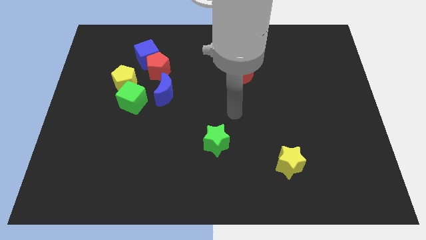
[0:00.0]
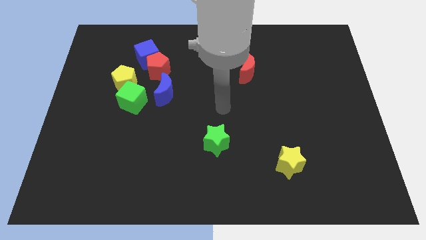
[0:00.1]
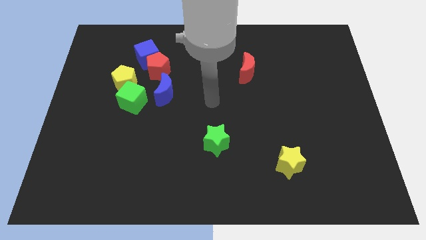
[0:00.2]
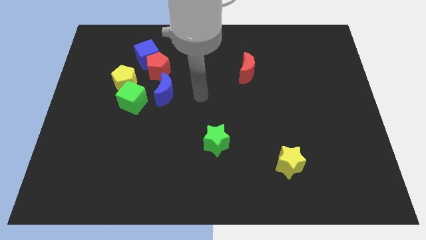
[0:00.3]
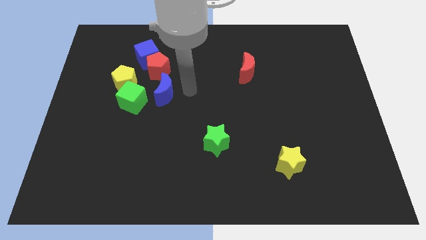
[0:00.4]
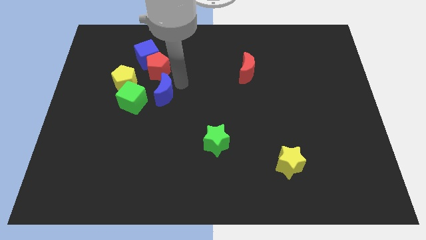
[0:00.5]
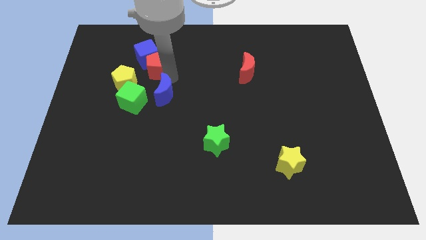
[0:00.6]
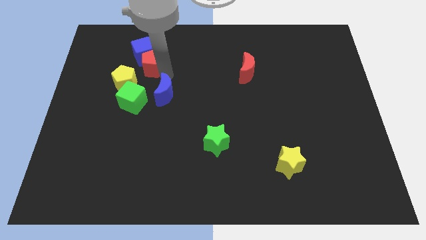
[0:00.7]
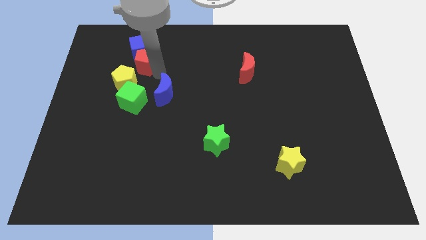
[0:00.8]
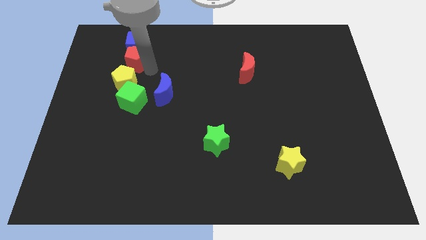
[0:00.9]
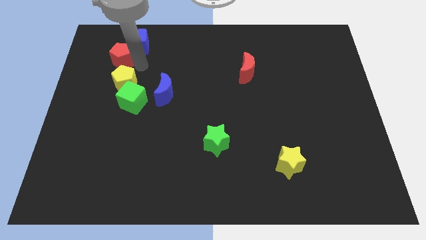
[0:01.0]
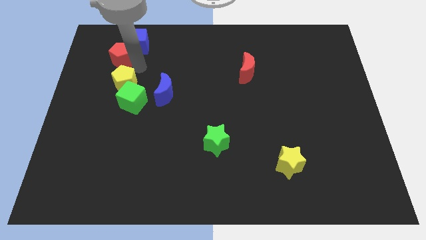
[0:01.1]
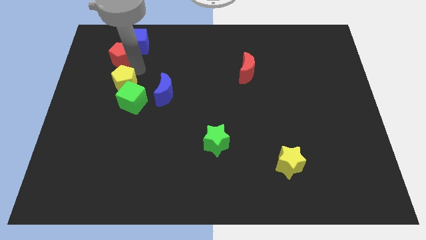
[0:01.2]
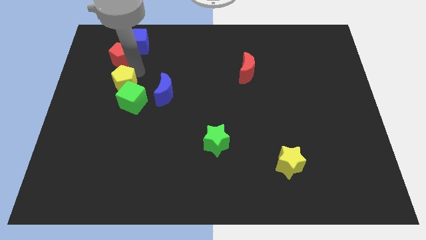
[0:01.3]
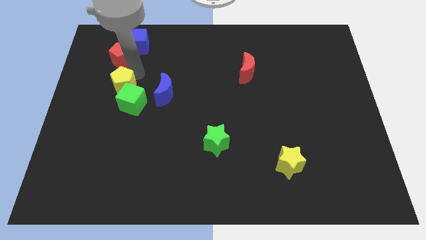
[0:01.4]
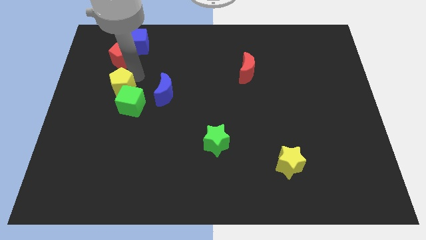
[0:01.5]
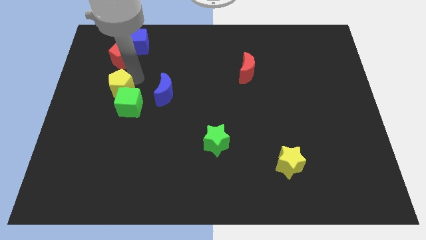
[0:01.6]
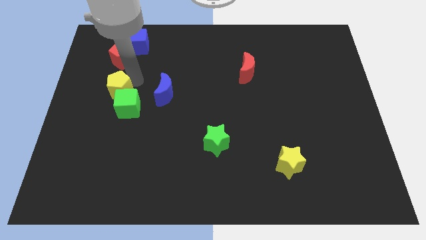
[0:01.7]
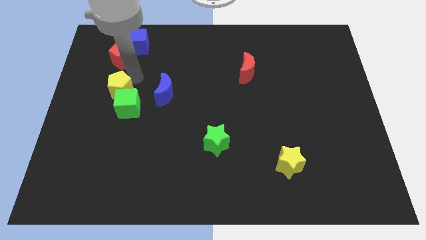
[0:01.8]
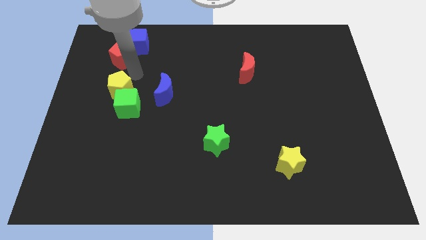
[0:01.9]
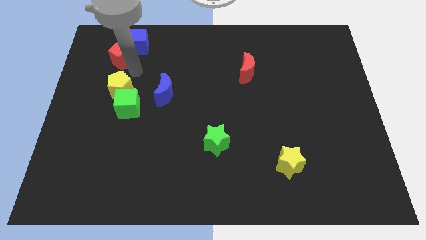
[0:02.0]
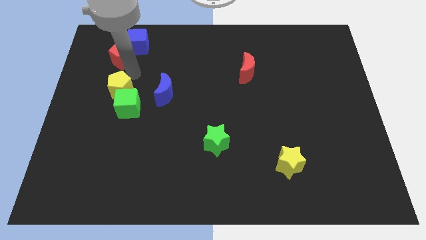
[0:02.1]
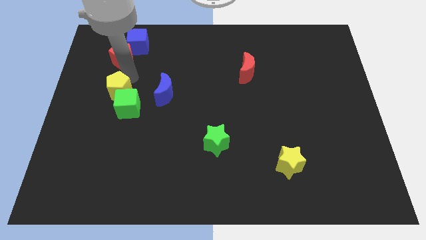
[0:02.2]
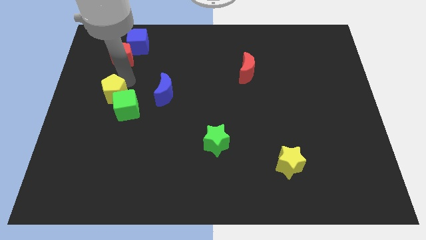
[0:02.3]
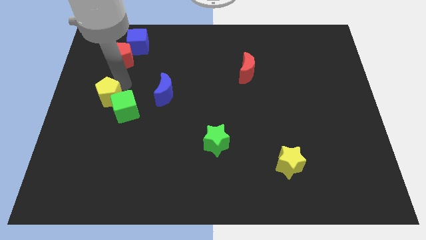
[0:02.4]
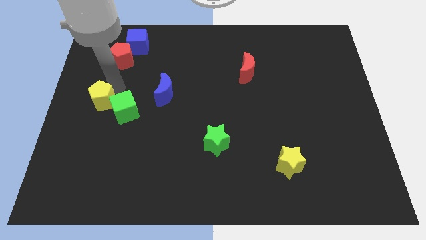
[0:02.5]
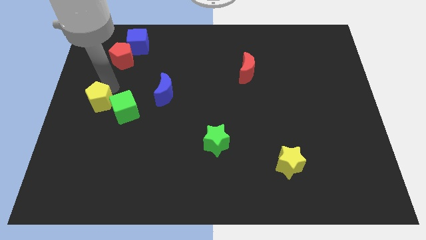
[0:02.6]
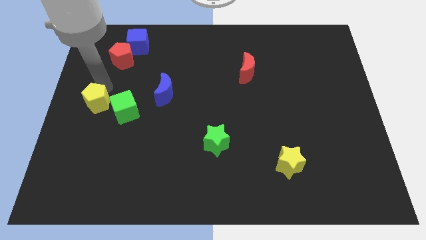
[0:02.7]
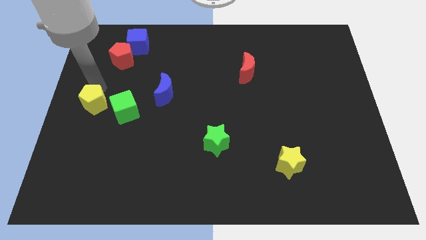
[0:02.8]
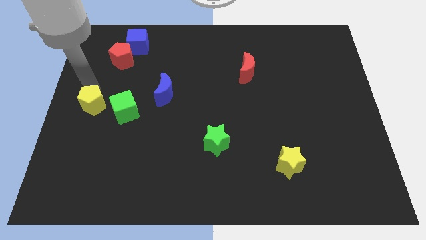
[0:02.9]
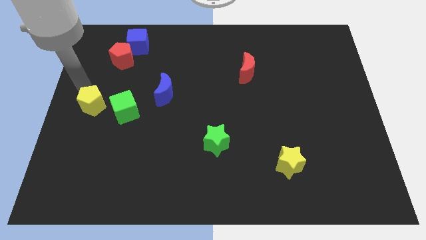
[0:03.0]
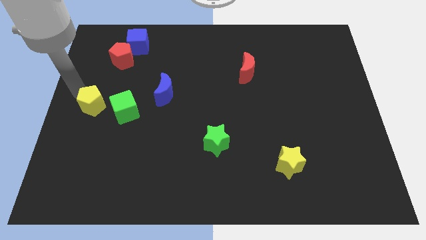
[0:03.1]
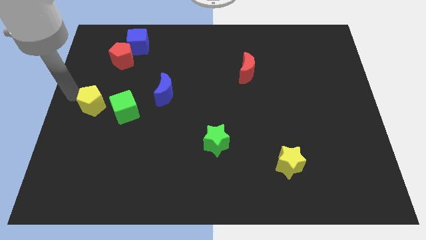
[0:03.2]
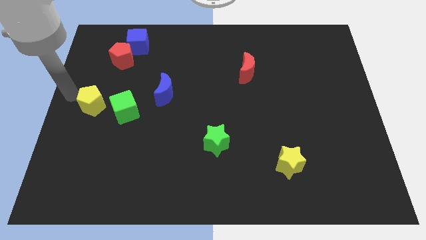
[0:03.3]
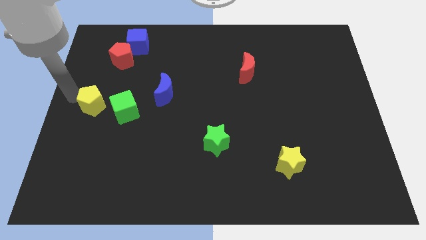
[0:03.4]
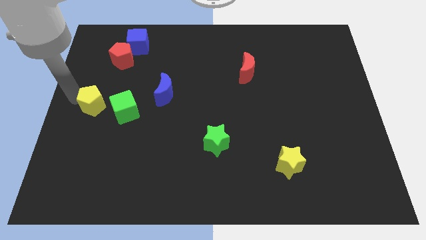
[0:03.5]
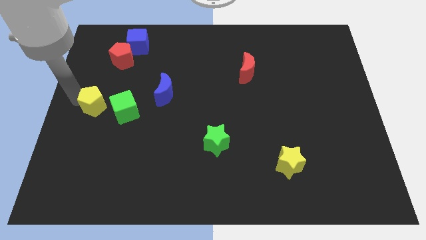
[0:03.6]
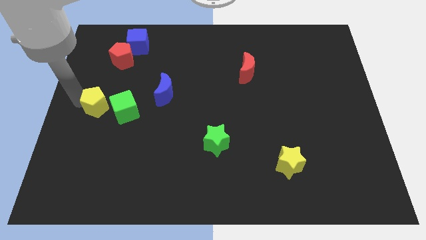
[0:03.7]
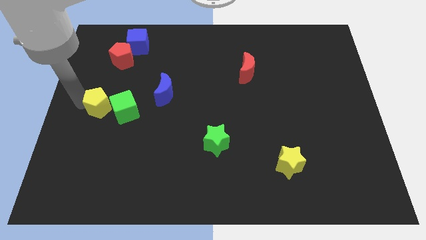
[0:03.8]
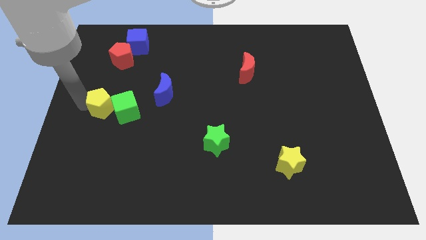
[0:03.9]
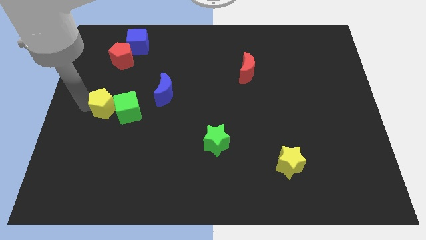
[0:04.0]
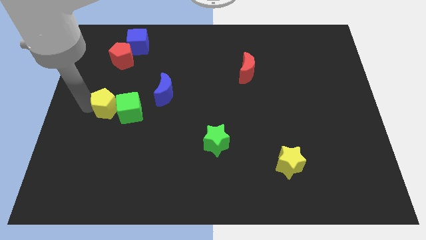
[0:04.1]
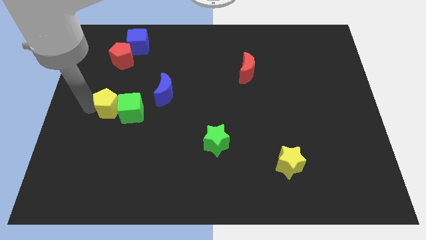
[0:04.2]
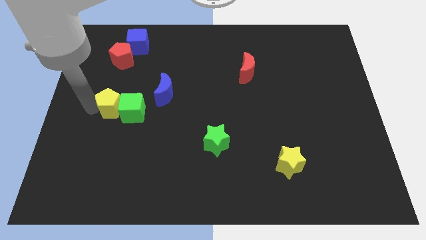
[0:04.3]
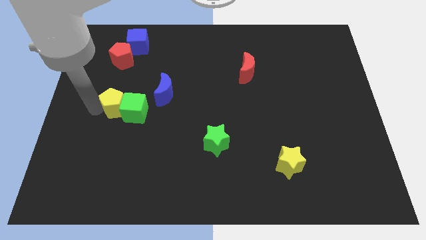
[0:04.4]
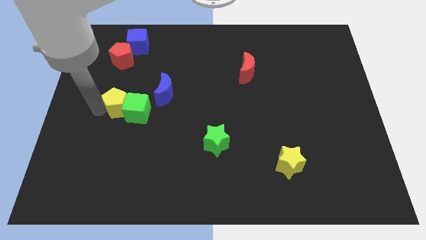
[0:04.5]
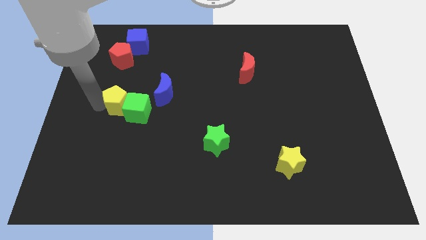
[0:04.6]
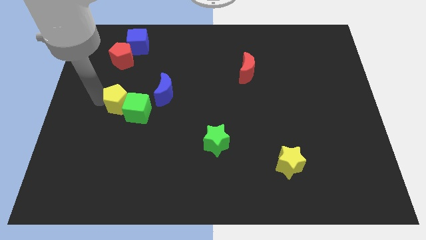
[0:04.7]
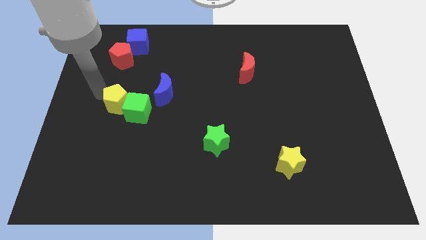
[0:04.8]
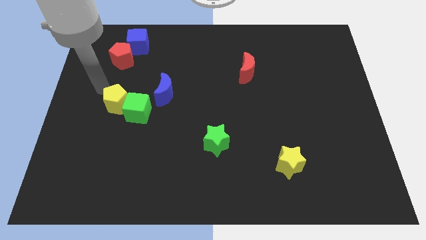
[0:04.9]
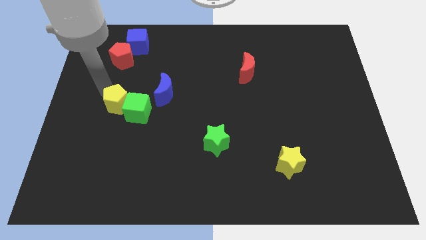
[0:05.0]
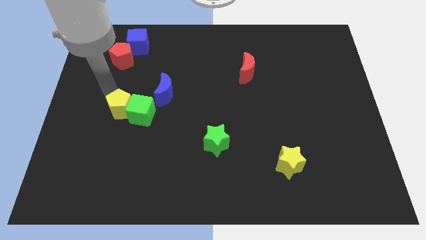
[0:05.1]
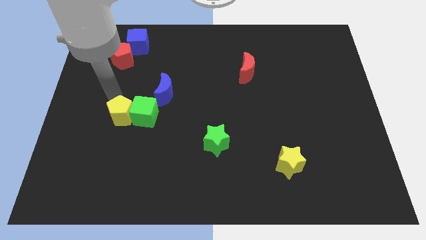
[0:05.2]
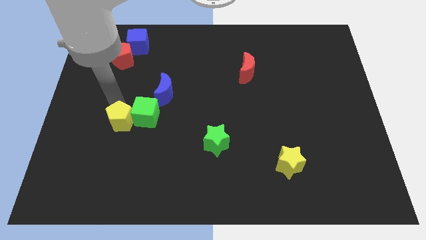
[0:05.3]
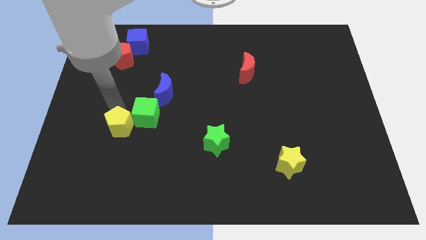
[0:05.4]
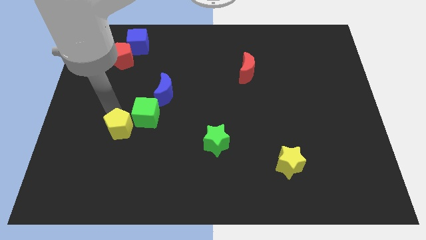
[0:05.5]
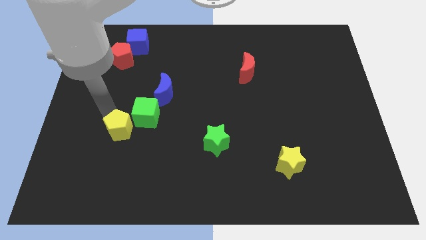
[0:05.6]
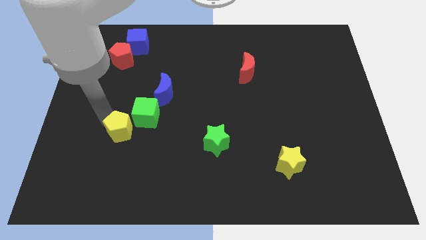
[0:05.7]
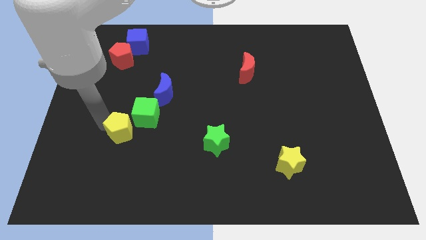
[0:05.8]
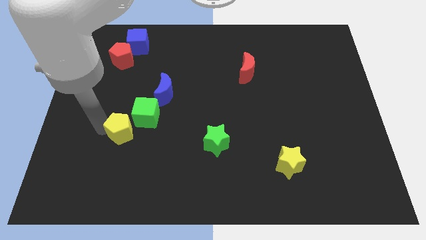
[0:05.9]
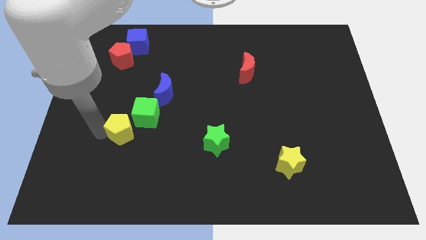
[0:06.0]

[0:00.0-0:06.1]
move the yellow pentagon down and to the right diagonally slightly

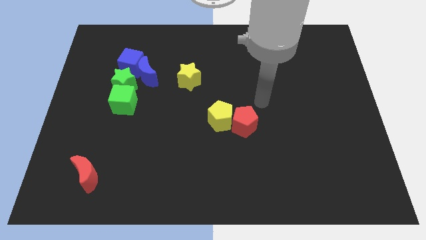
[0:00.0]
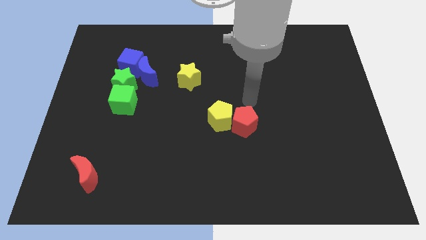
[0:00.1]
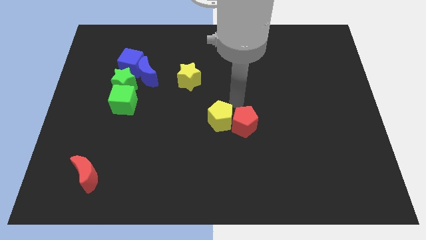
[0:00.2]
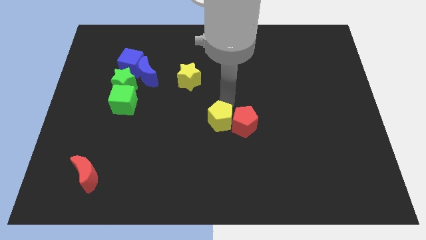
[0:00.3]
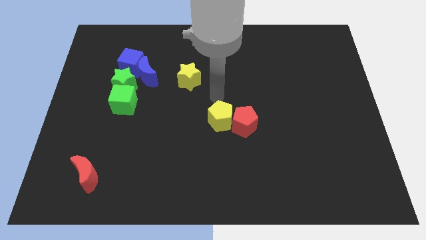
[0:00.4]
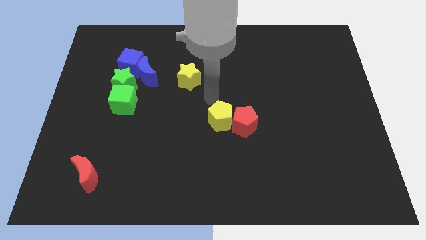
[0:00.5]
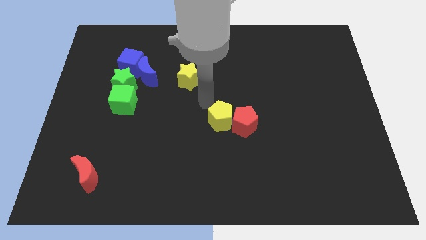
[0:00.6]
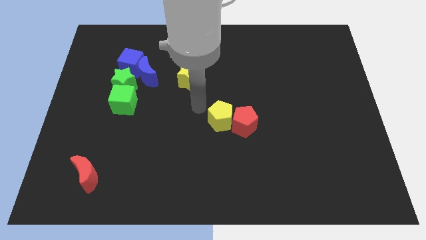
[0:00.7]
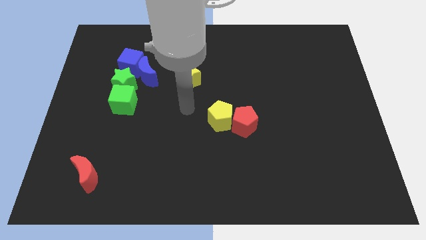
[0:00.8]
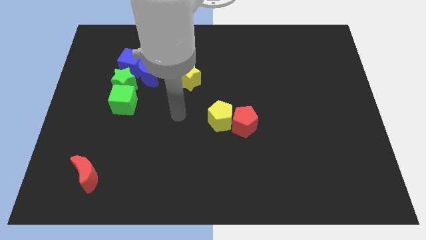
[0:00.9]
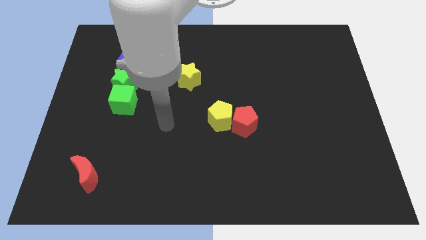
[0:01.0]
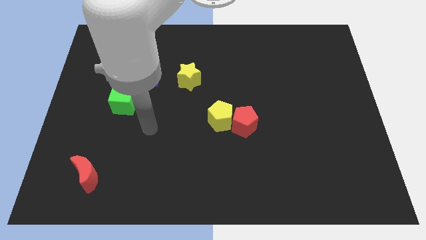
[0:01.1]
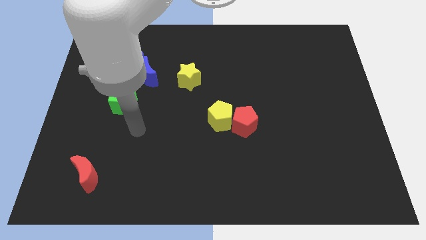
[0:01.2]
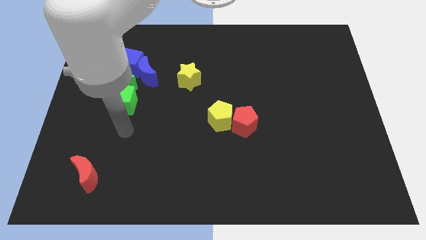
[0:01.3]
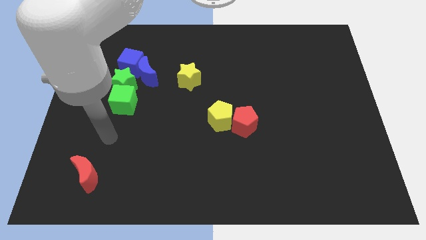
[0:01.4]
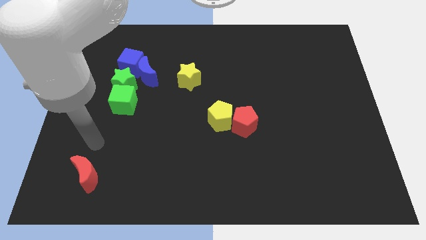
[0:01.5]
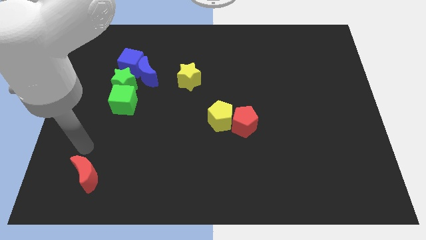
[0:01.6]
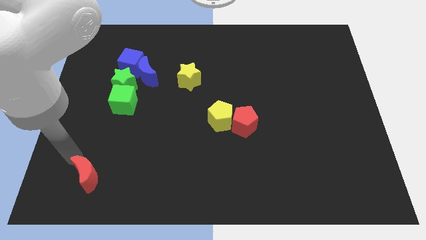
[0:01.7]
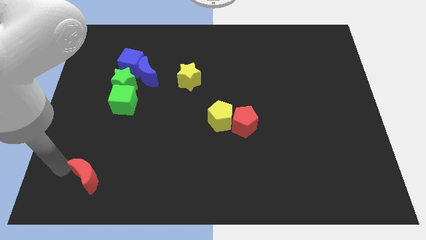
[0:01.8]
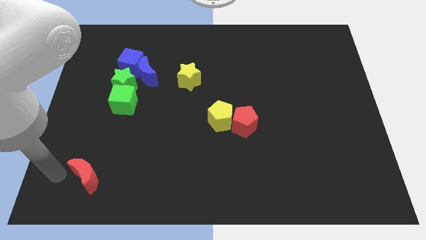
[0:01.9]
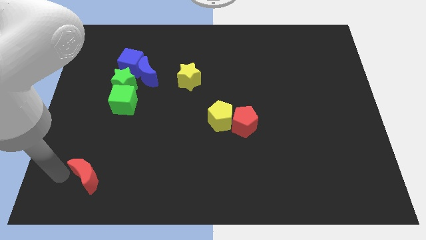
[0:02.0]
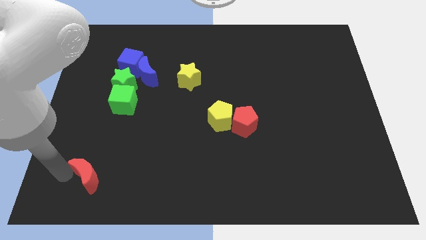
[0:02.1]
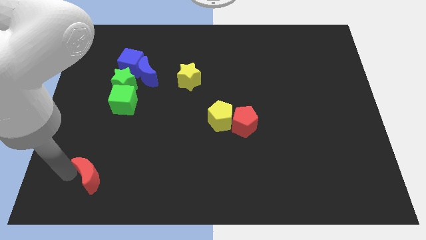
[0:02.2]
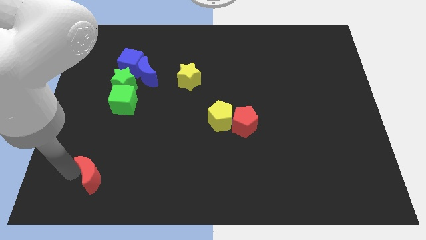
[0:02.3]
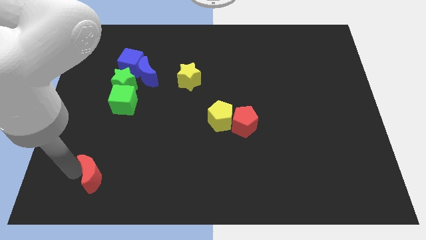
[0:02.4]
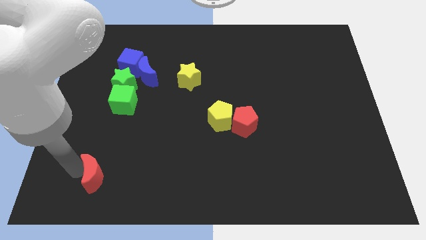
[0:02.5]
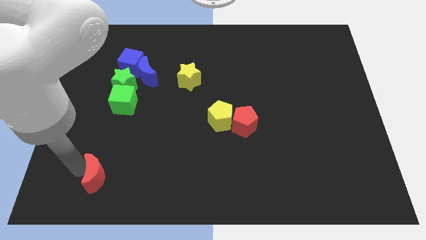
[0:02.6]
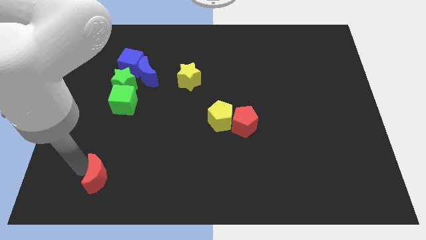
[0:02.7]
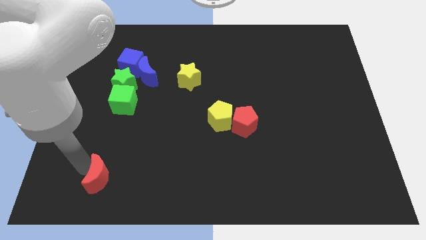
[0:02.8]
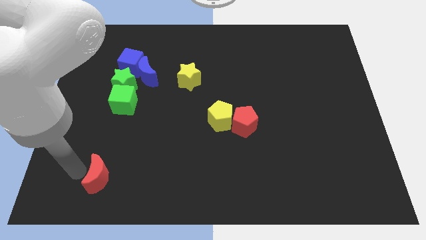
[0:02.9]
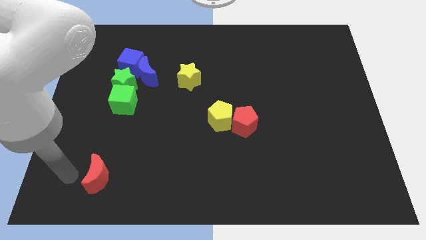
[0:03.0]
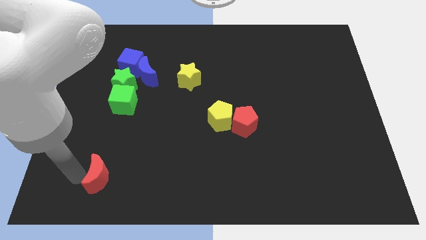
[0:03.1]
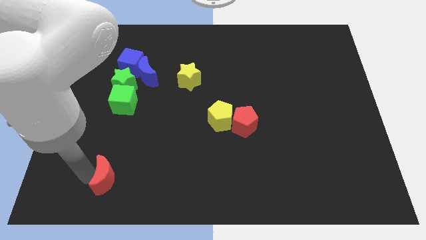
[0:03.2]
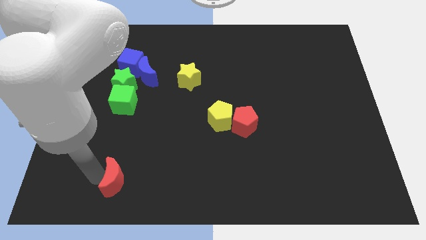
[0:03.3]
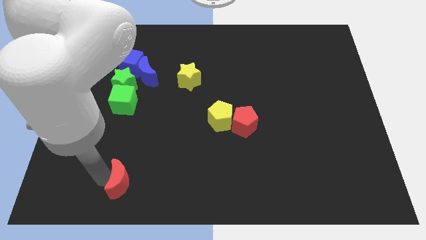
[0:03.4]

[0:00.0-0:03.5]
move the red moon a little bit to the right
